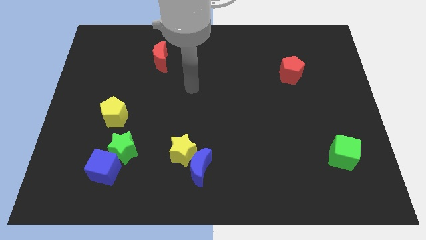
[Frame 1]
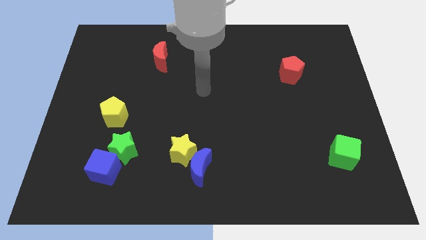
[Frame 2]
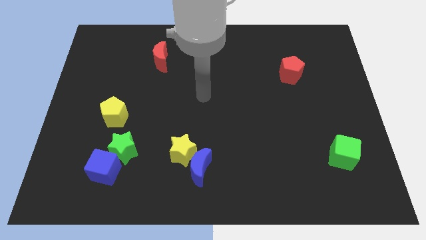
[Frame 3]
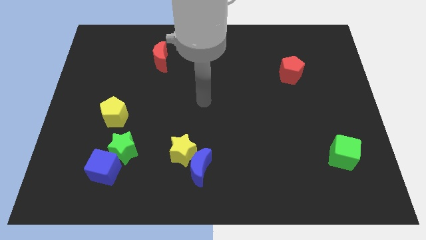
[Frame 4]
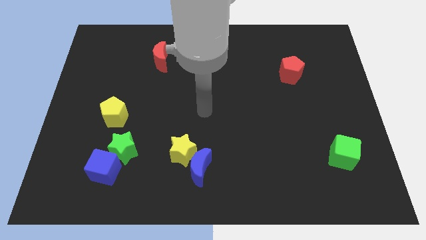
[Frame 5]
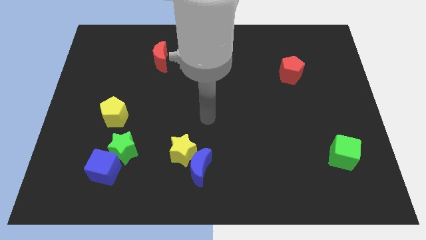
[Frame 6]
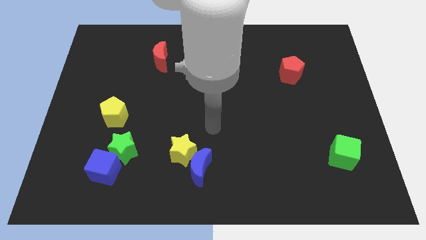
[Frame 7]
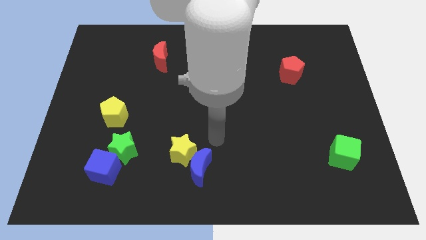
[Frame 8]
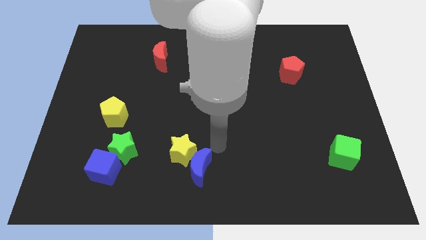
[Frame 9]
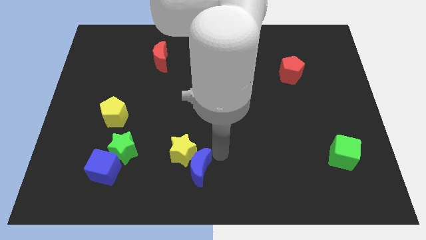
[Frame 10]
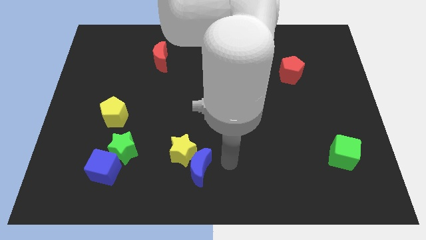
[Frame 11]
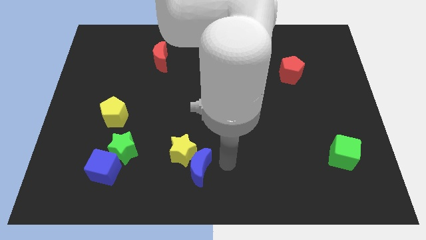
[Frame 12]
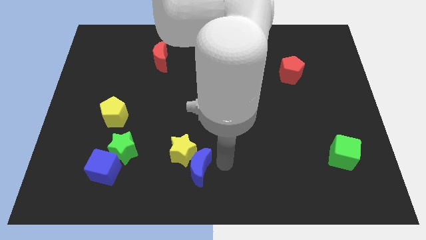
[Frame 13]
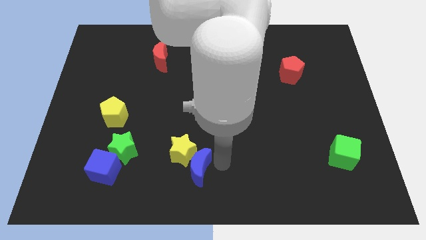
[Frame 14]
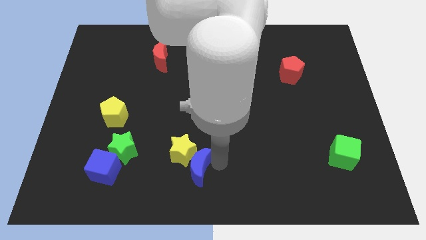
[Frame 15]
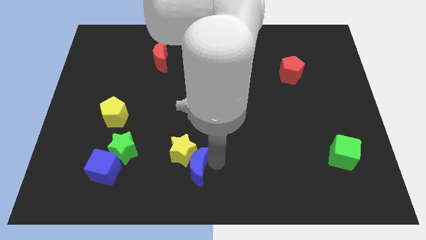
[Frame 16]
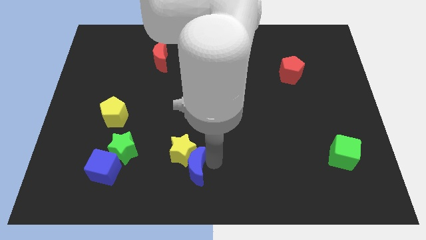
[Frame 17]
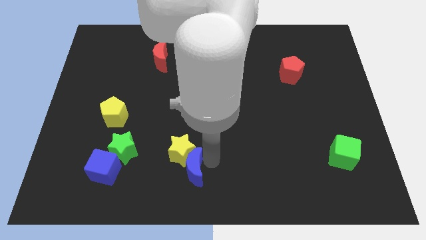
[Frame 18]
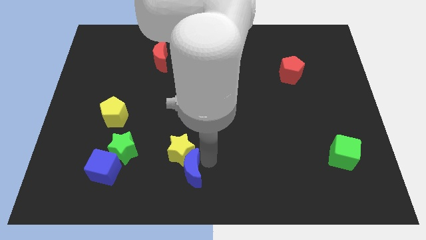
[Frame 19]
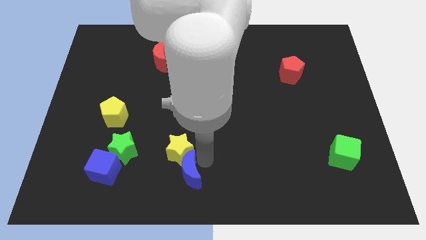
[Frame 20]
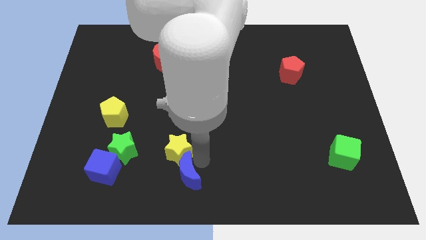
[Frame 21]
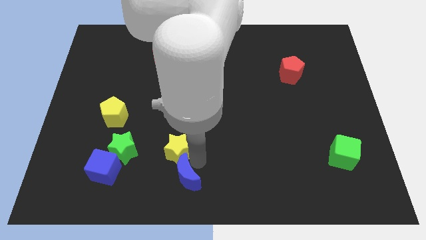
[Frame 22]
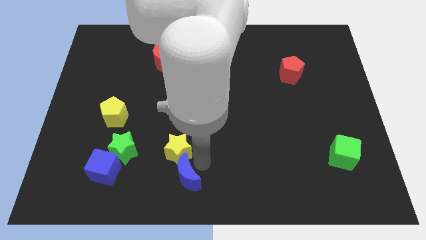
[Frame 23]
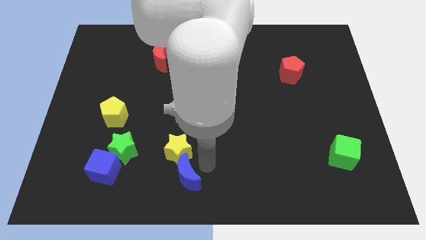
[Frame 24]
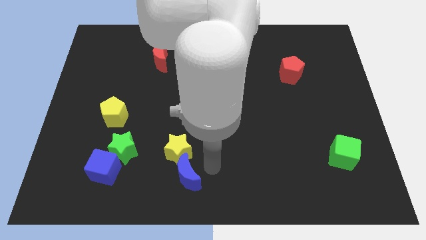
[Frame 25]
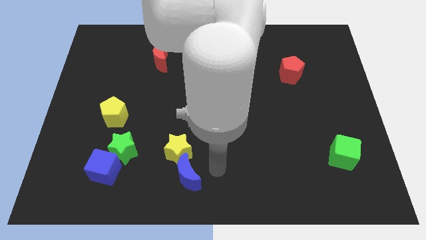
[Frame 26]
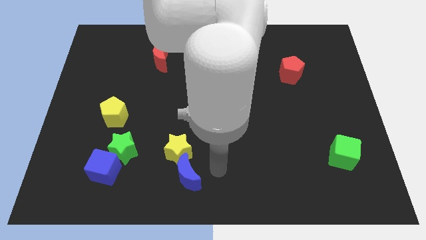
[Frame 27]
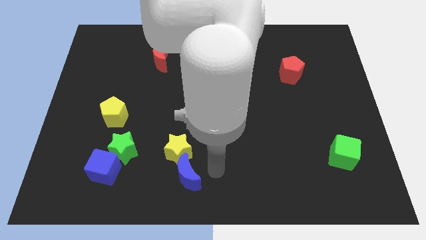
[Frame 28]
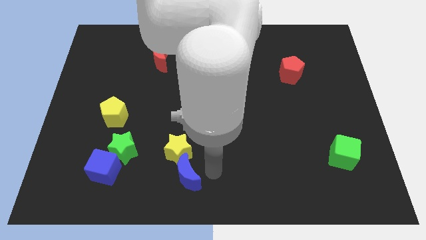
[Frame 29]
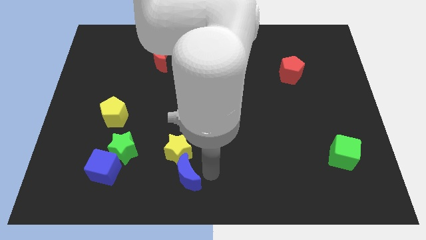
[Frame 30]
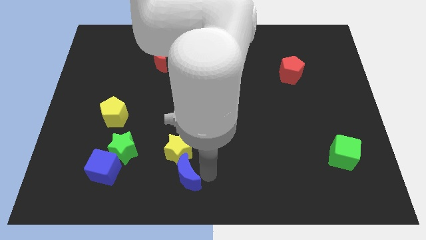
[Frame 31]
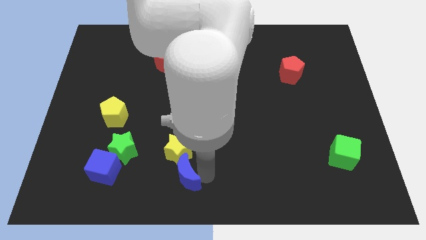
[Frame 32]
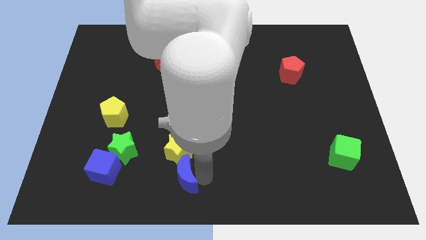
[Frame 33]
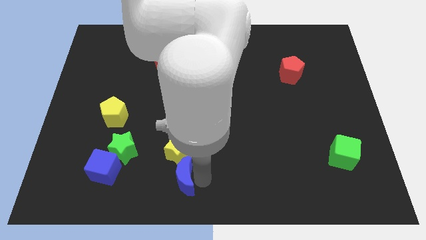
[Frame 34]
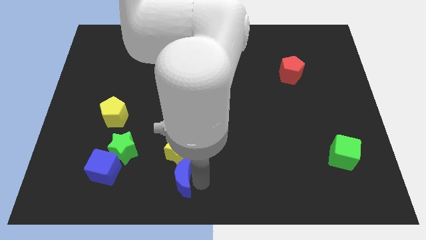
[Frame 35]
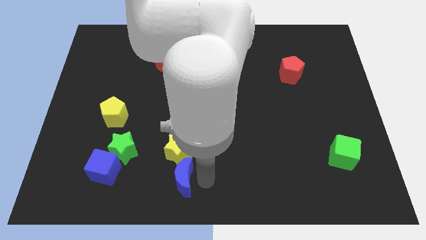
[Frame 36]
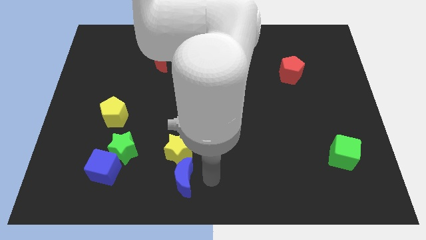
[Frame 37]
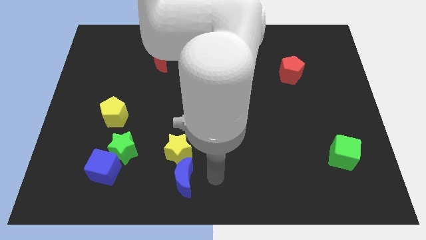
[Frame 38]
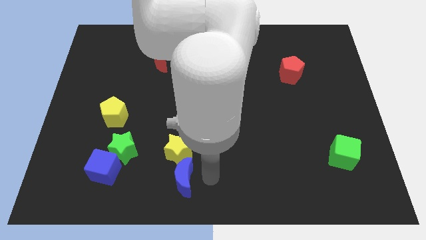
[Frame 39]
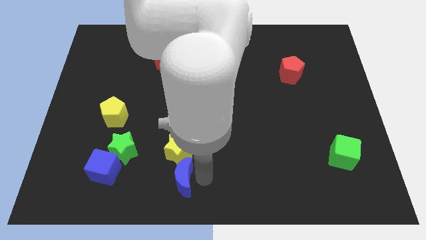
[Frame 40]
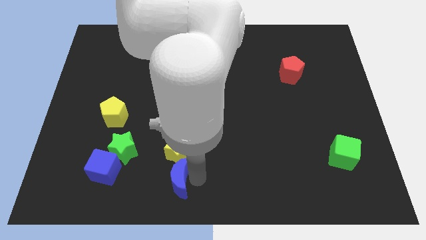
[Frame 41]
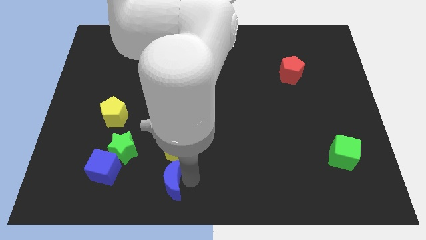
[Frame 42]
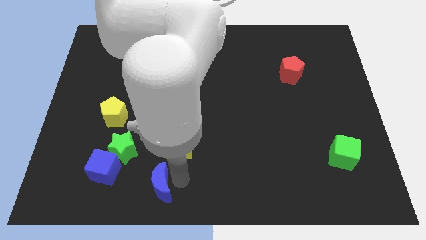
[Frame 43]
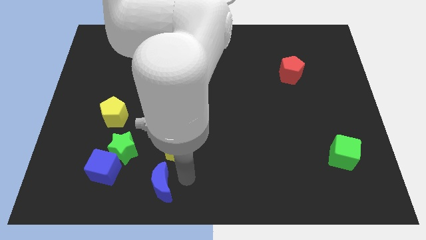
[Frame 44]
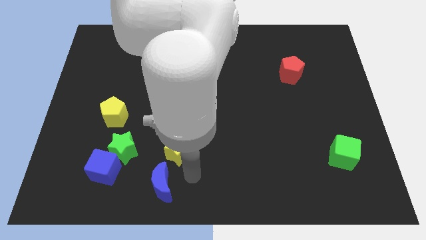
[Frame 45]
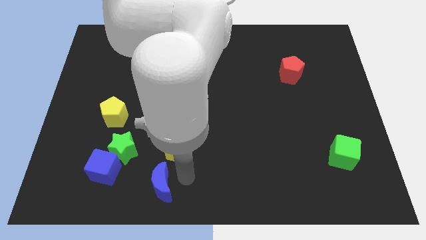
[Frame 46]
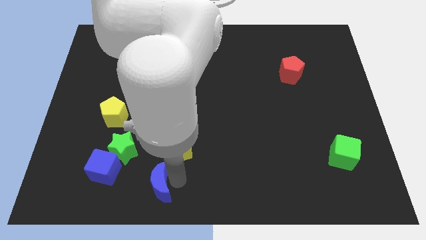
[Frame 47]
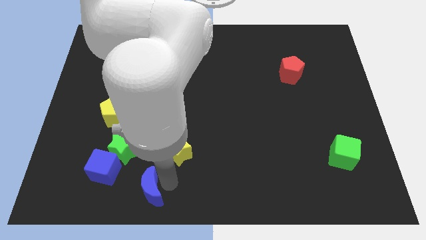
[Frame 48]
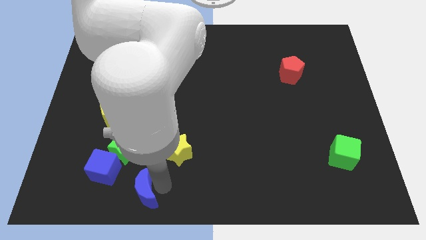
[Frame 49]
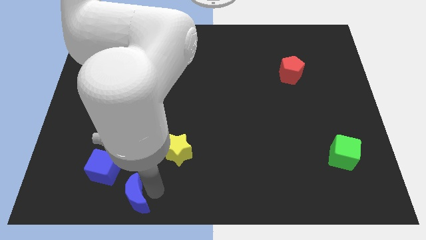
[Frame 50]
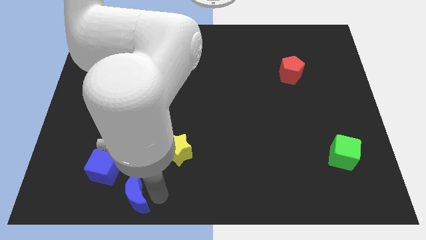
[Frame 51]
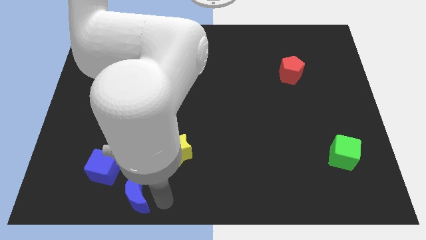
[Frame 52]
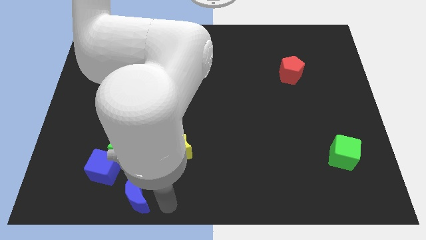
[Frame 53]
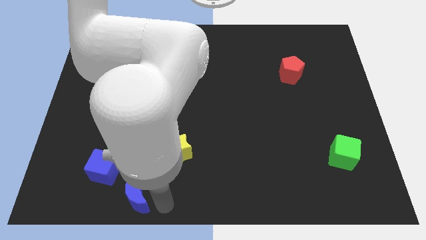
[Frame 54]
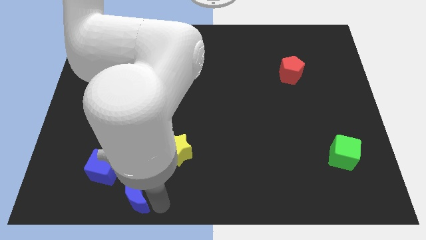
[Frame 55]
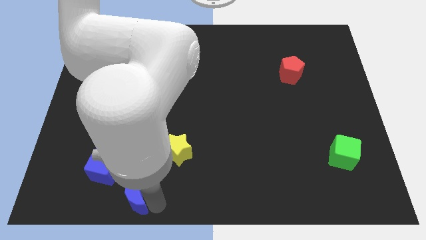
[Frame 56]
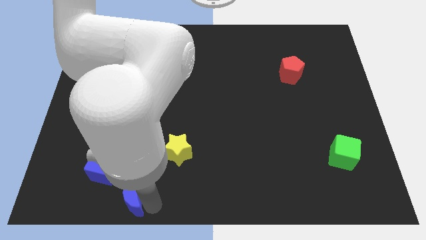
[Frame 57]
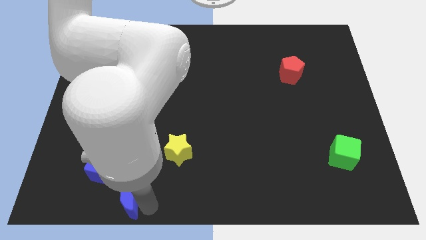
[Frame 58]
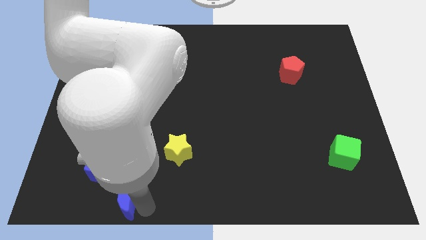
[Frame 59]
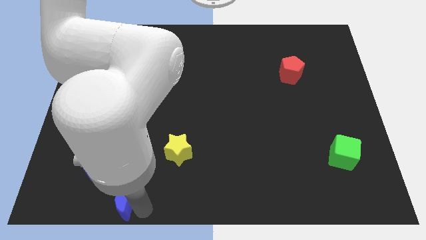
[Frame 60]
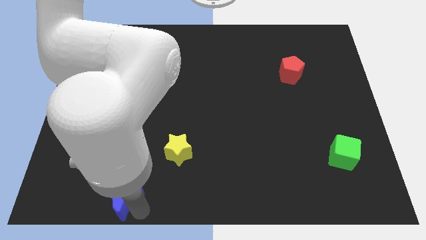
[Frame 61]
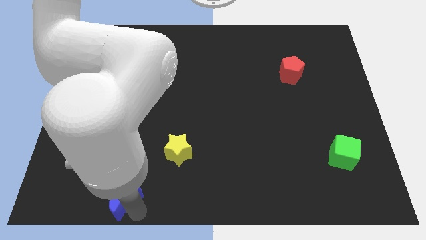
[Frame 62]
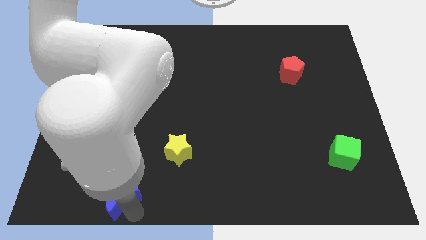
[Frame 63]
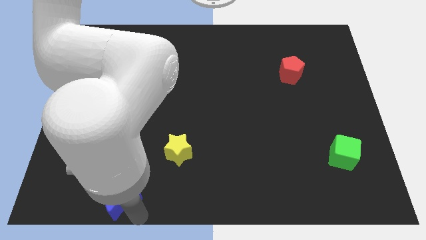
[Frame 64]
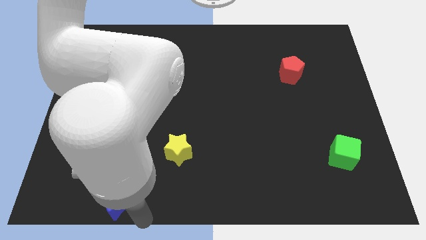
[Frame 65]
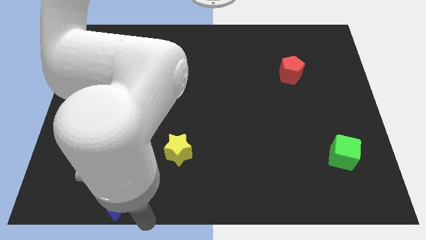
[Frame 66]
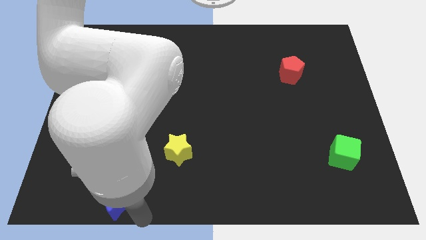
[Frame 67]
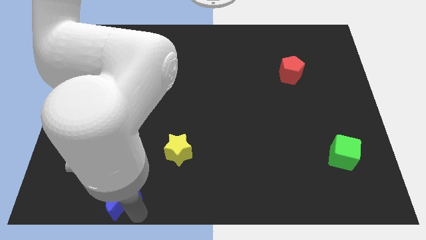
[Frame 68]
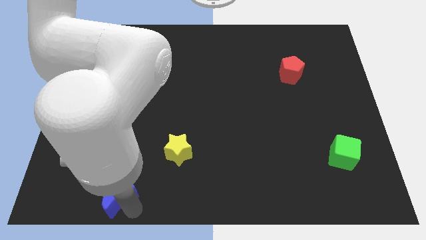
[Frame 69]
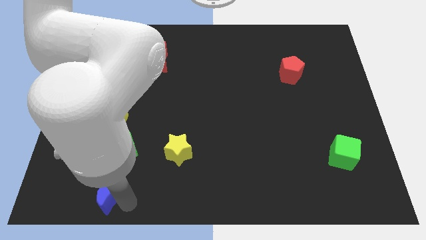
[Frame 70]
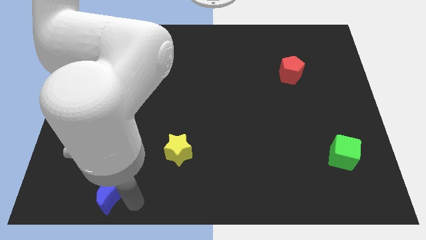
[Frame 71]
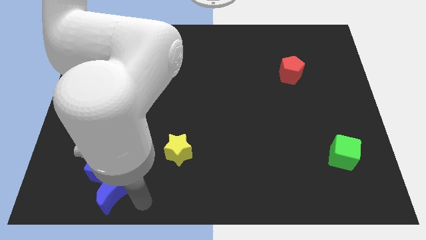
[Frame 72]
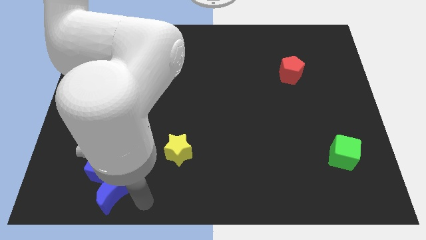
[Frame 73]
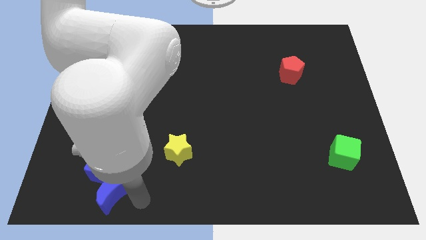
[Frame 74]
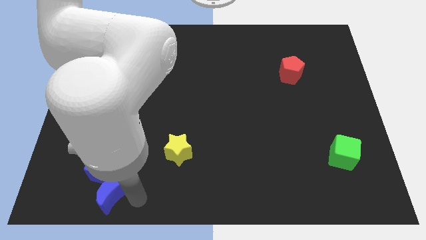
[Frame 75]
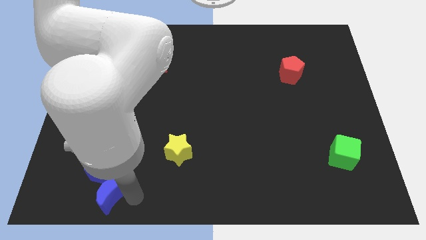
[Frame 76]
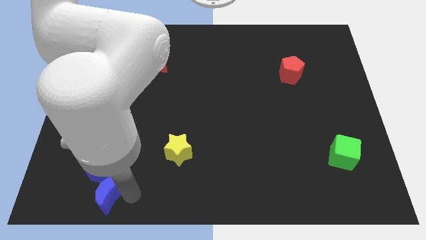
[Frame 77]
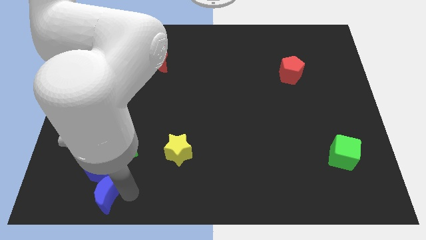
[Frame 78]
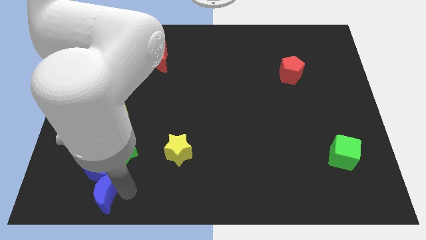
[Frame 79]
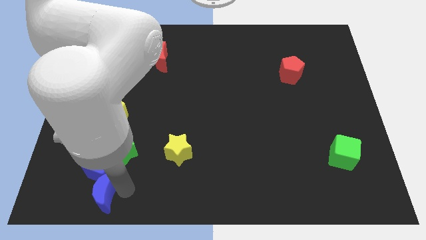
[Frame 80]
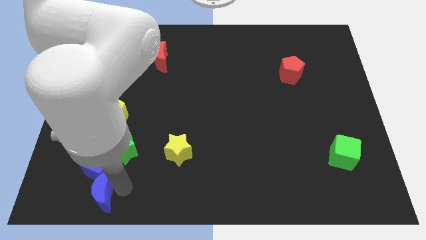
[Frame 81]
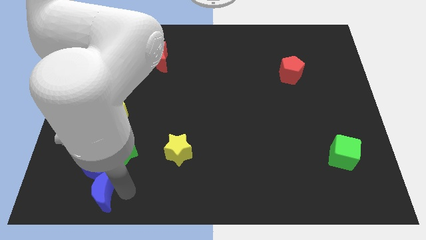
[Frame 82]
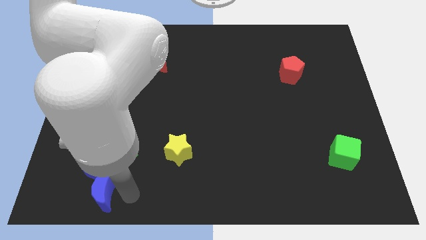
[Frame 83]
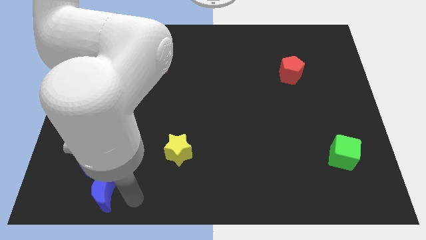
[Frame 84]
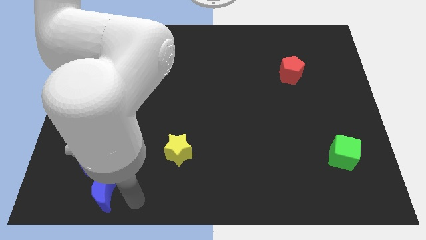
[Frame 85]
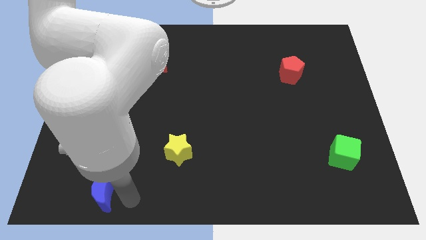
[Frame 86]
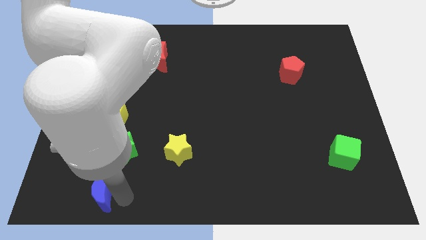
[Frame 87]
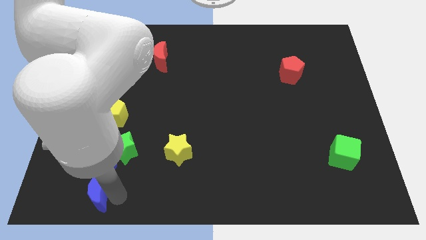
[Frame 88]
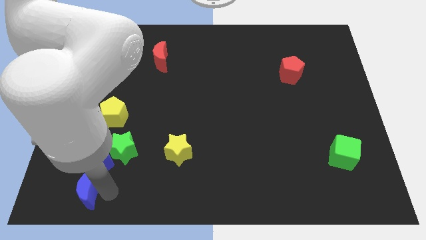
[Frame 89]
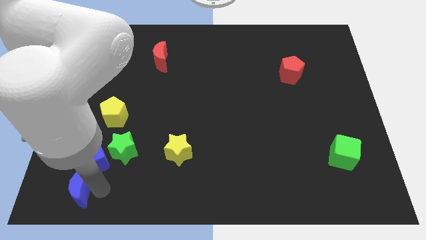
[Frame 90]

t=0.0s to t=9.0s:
push the blue moon to the bottom left corner
